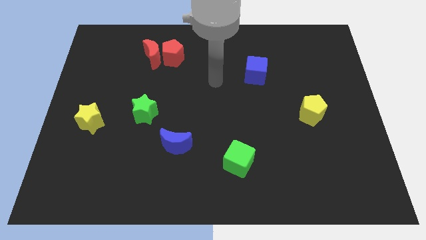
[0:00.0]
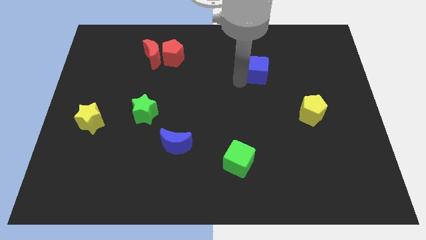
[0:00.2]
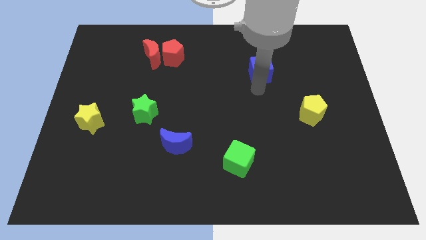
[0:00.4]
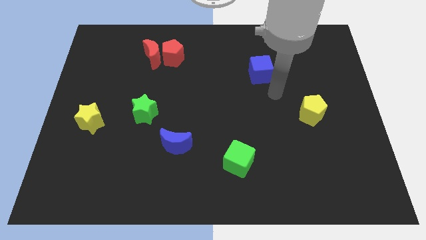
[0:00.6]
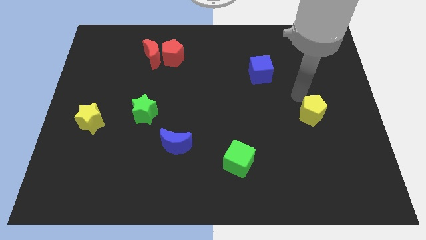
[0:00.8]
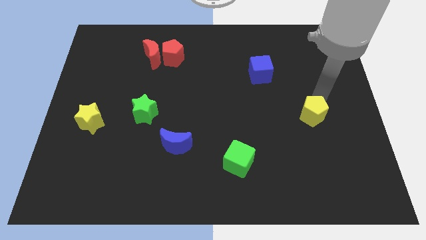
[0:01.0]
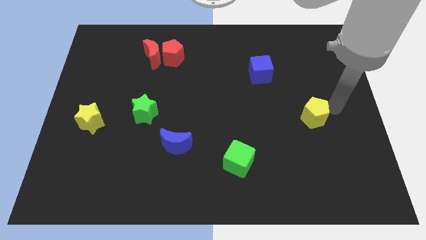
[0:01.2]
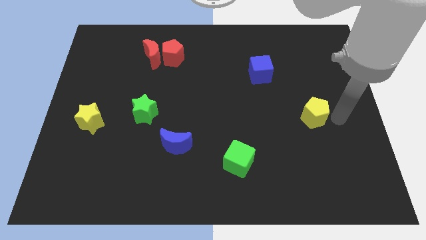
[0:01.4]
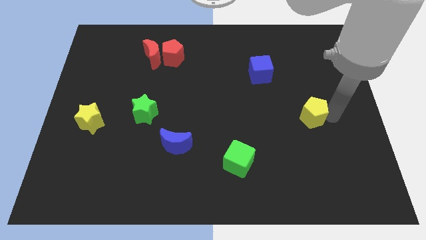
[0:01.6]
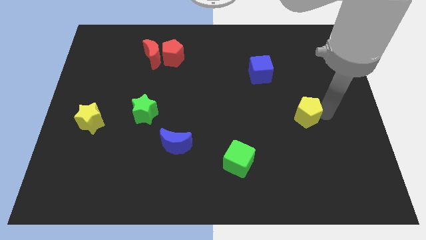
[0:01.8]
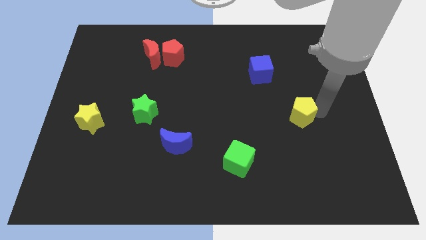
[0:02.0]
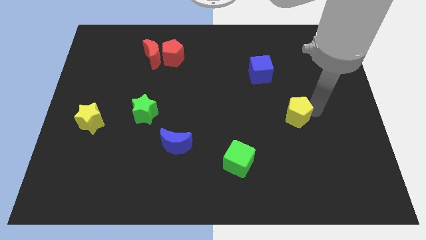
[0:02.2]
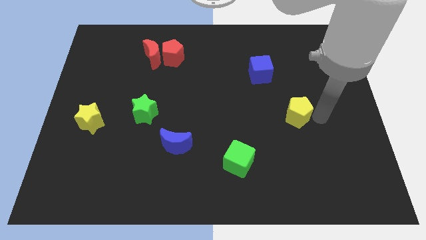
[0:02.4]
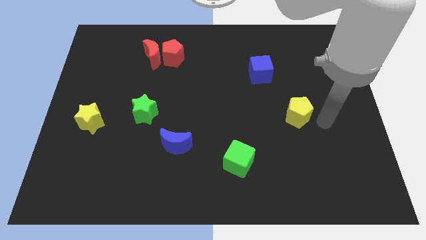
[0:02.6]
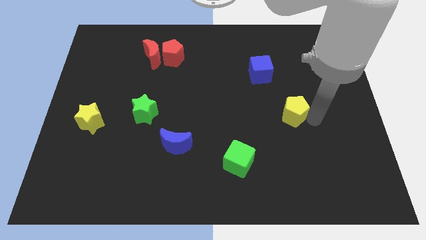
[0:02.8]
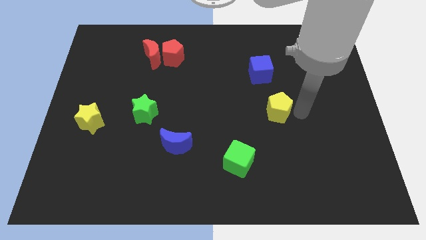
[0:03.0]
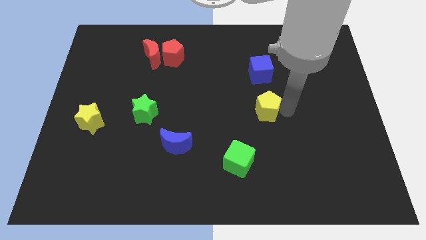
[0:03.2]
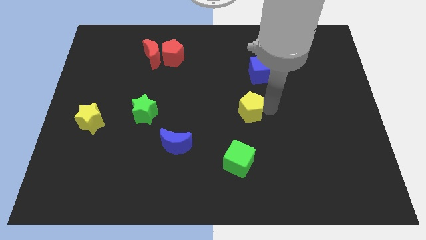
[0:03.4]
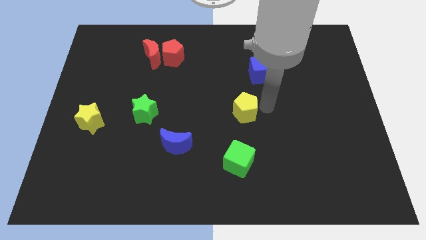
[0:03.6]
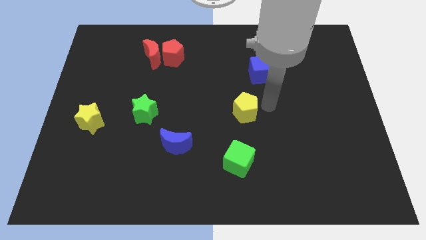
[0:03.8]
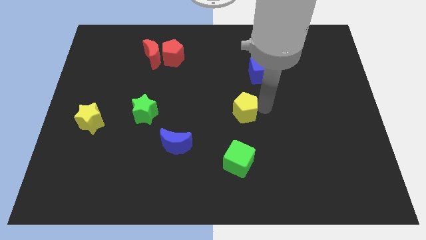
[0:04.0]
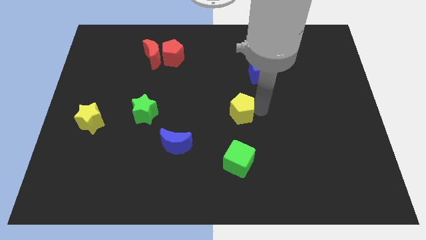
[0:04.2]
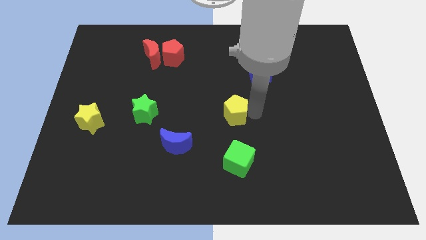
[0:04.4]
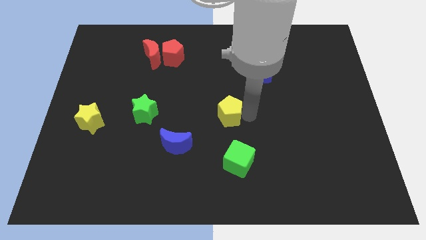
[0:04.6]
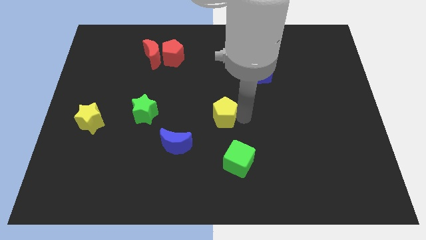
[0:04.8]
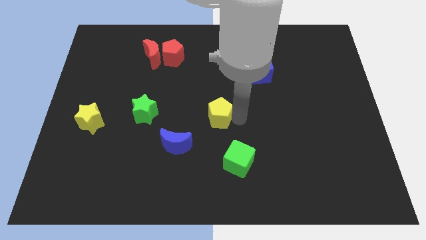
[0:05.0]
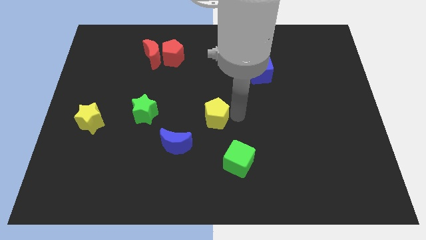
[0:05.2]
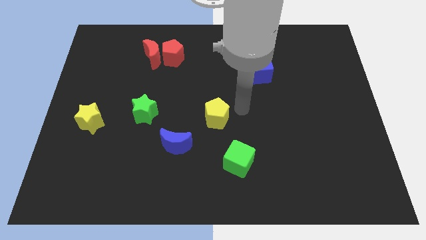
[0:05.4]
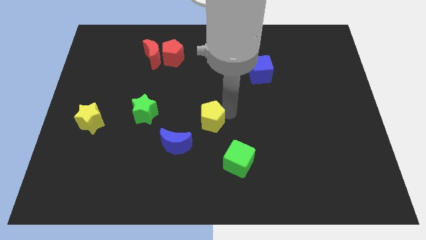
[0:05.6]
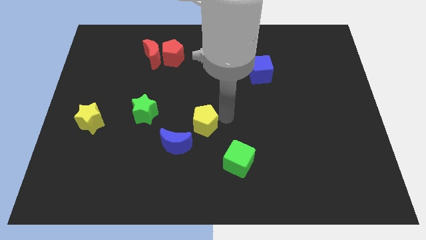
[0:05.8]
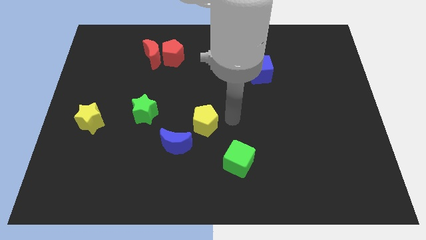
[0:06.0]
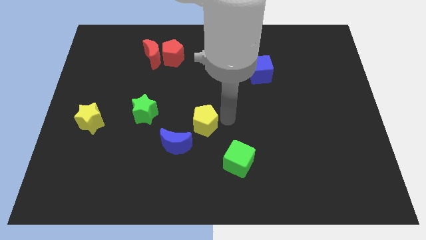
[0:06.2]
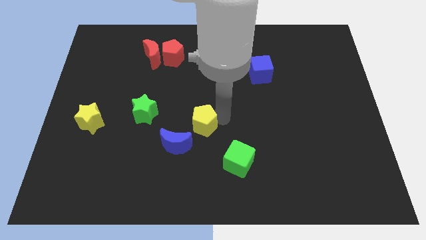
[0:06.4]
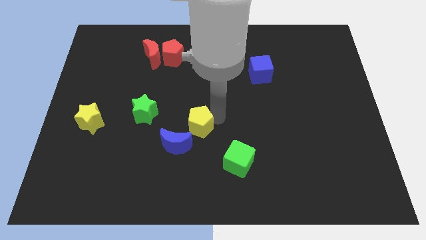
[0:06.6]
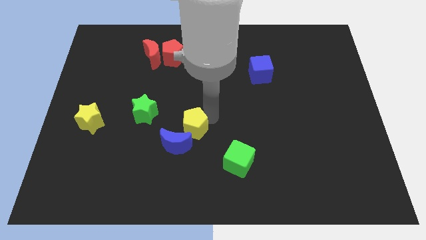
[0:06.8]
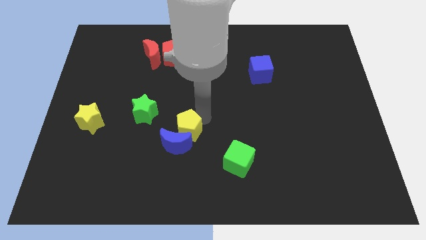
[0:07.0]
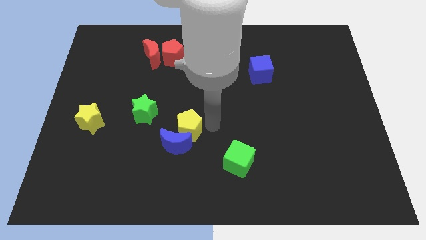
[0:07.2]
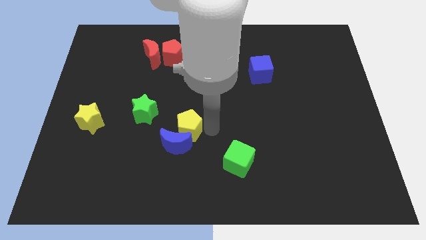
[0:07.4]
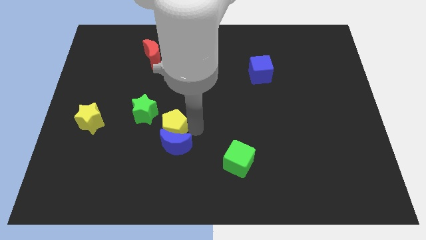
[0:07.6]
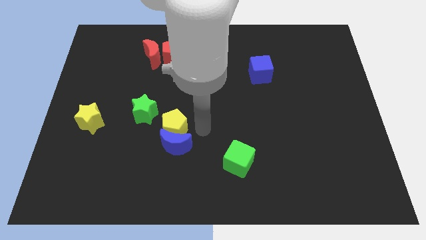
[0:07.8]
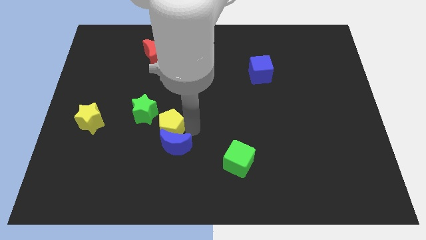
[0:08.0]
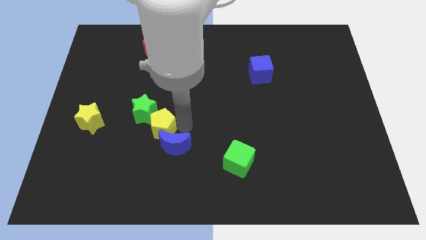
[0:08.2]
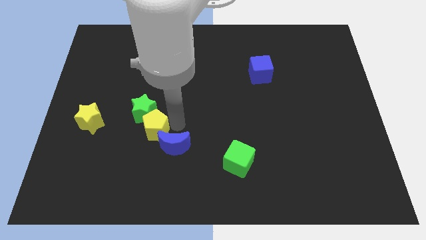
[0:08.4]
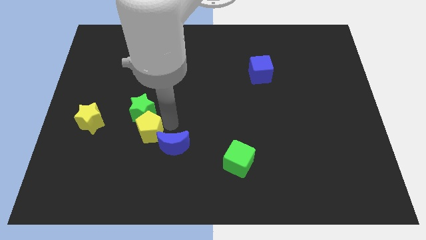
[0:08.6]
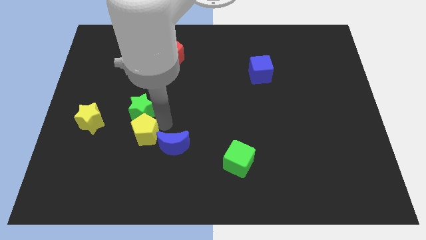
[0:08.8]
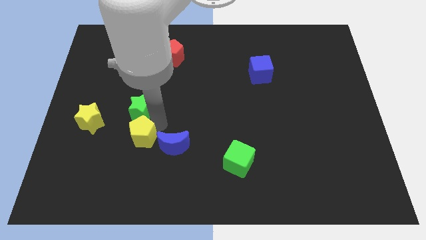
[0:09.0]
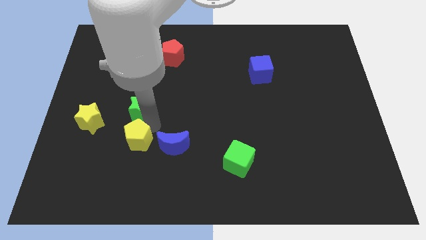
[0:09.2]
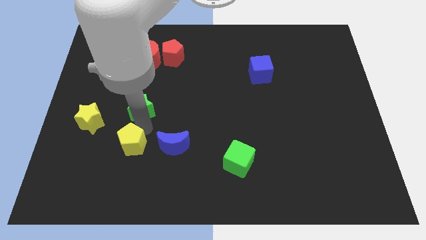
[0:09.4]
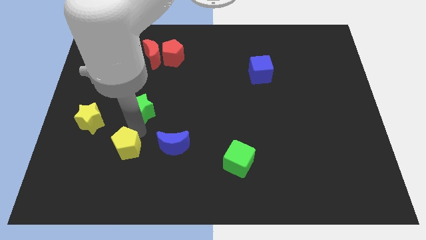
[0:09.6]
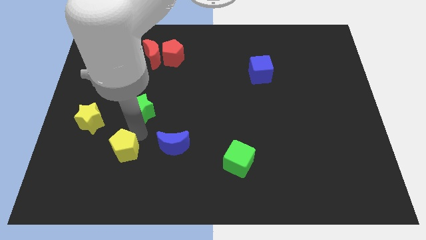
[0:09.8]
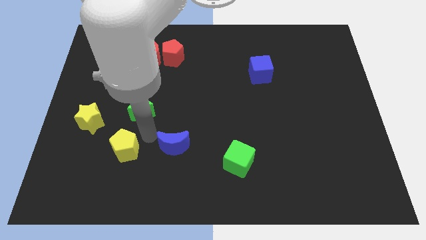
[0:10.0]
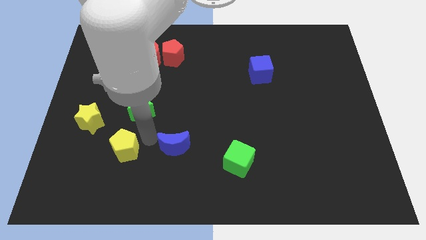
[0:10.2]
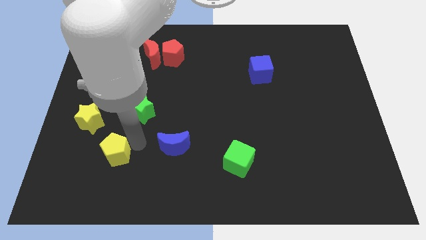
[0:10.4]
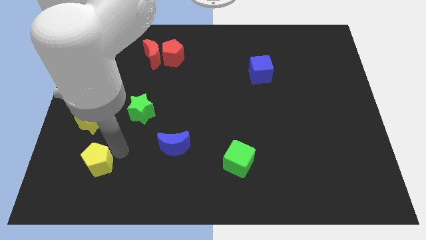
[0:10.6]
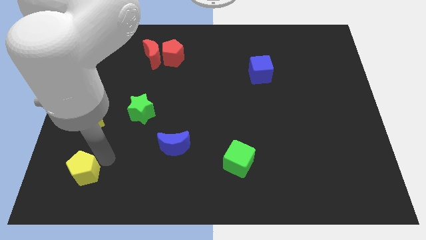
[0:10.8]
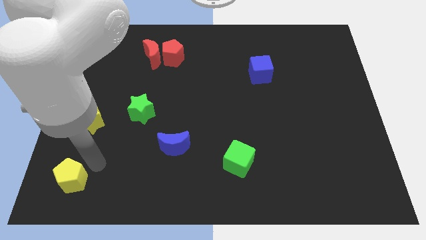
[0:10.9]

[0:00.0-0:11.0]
slide the yellow pentagon to the lower left corner

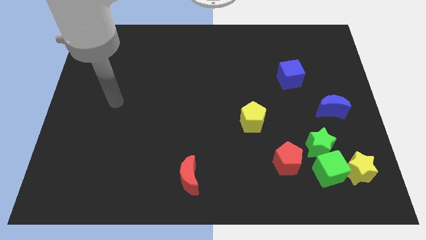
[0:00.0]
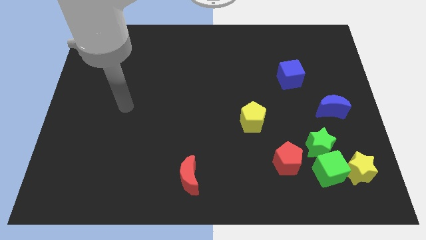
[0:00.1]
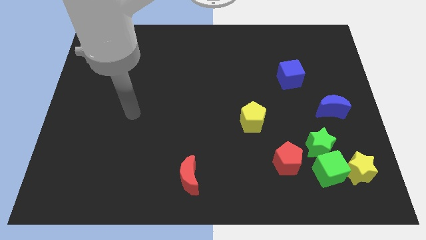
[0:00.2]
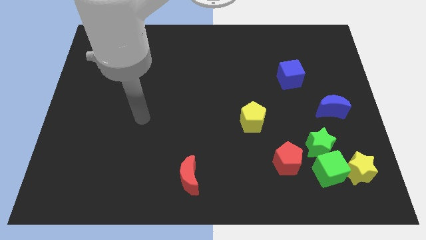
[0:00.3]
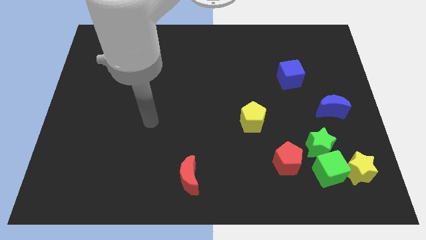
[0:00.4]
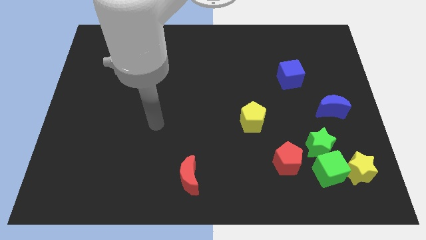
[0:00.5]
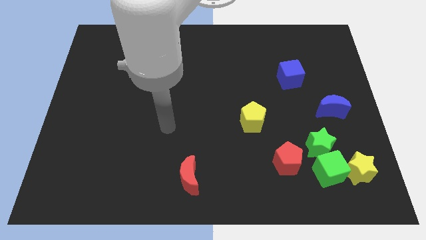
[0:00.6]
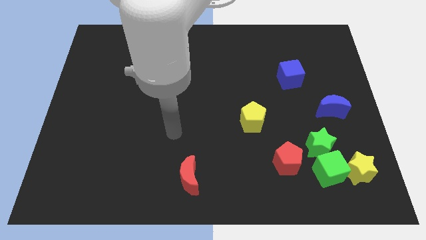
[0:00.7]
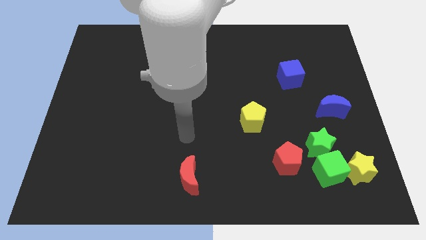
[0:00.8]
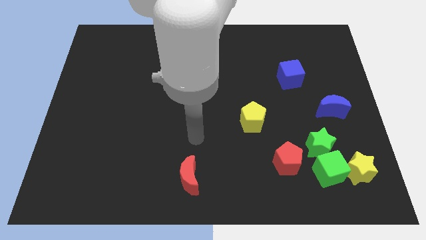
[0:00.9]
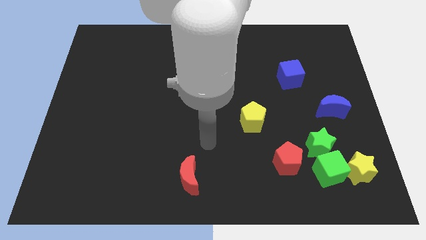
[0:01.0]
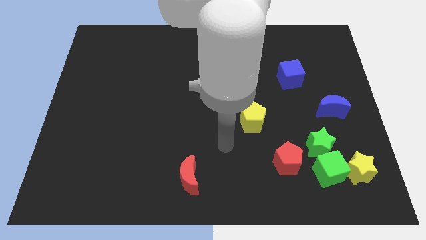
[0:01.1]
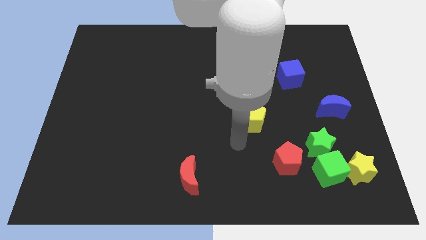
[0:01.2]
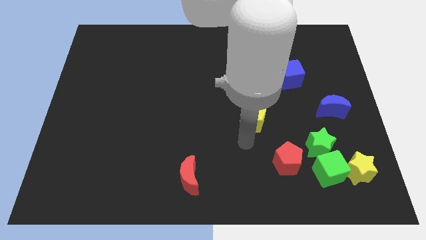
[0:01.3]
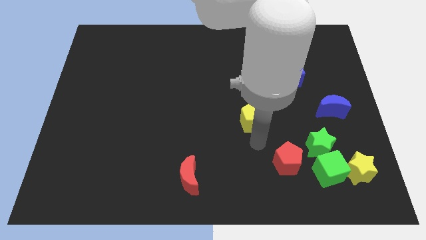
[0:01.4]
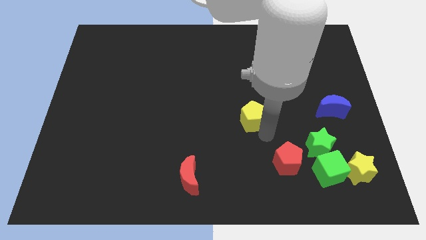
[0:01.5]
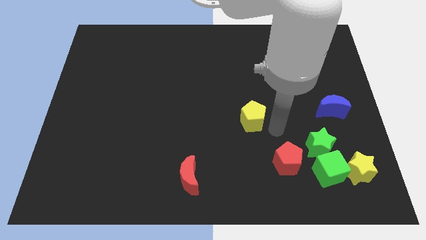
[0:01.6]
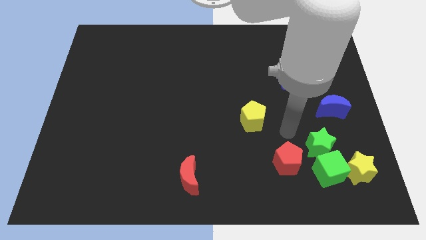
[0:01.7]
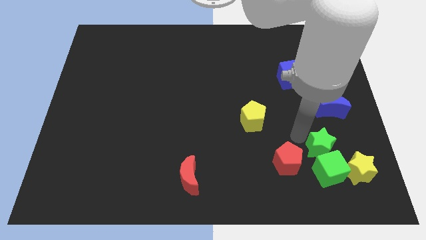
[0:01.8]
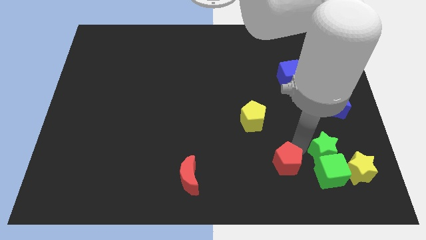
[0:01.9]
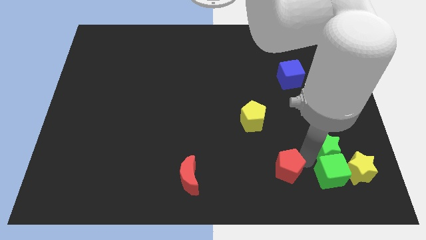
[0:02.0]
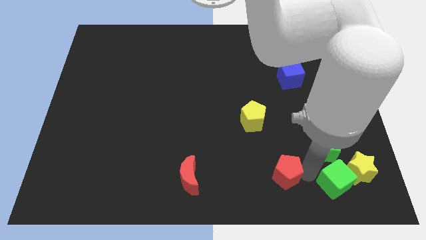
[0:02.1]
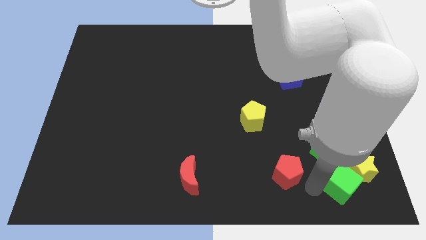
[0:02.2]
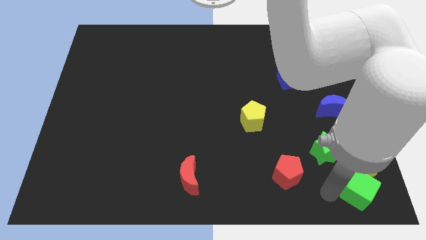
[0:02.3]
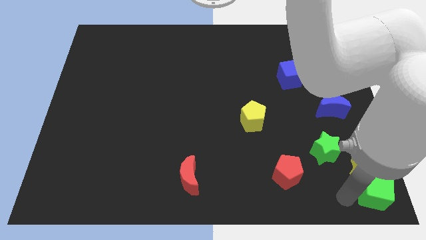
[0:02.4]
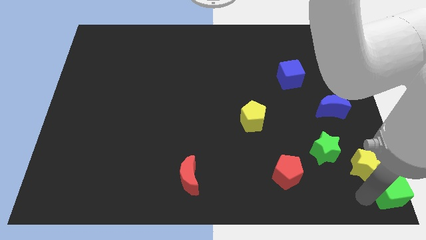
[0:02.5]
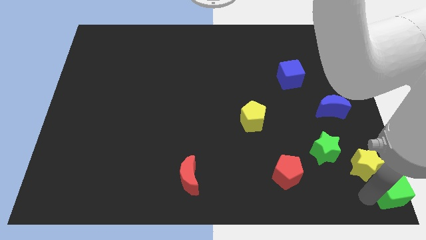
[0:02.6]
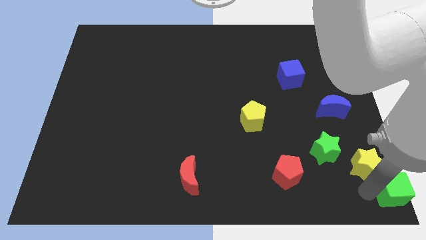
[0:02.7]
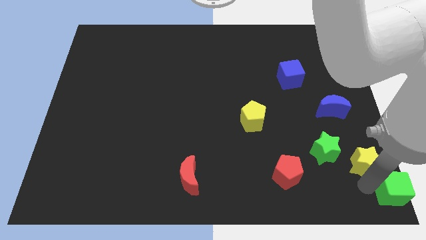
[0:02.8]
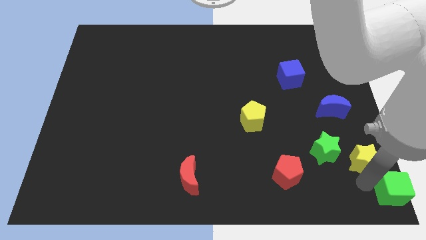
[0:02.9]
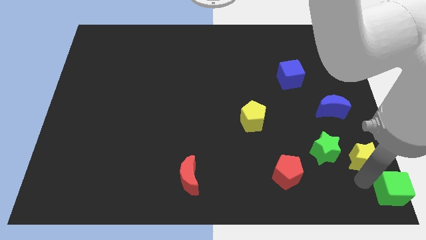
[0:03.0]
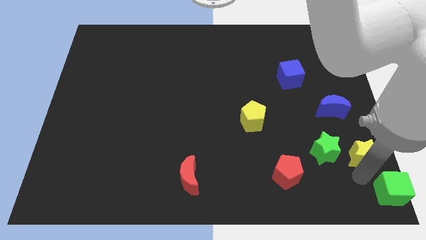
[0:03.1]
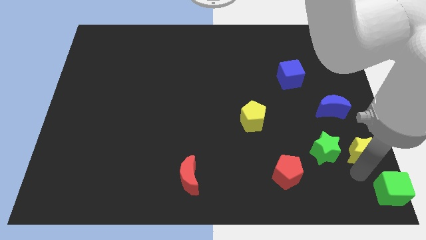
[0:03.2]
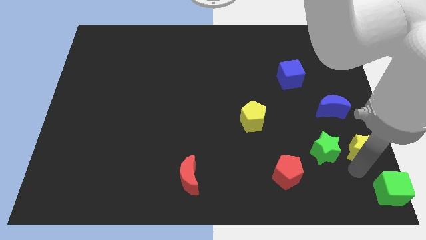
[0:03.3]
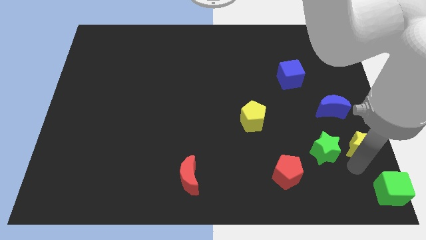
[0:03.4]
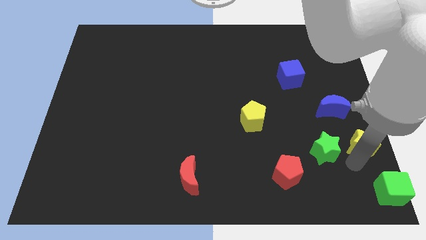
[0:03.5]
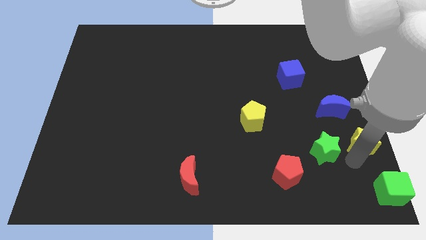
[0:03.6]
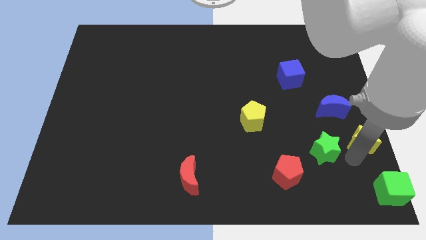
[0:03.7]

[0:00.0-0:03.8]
push the yellow star to the center right
